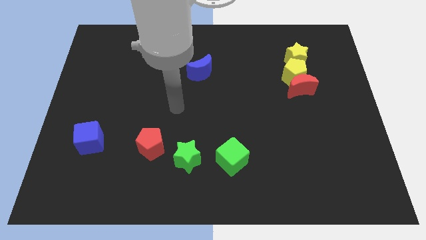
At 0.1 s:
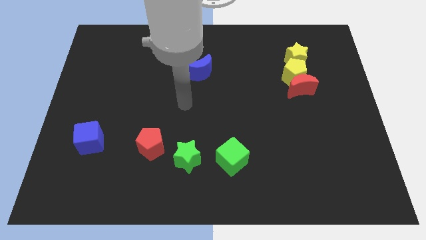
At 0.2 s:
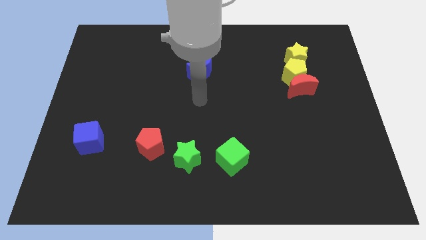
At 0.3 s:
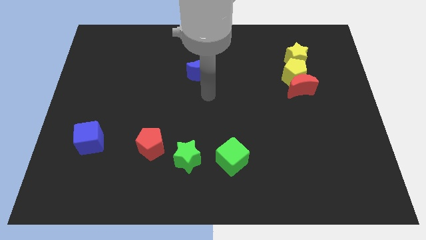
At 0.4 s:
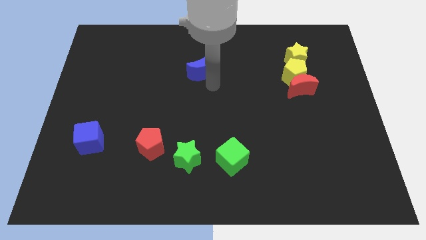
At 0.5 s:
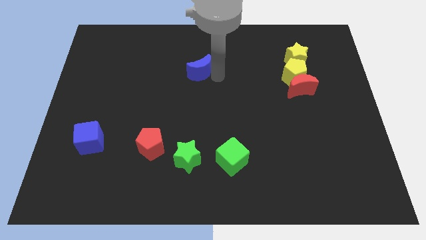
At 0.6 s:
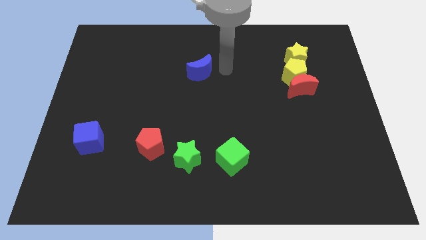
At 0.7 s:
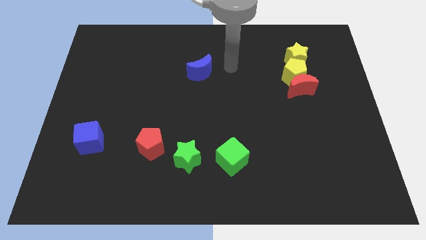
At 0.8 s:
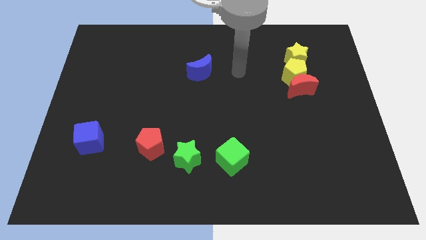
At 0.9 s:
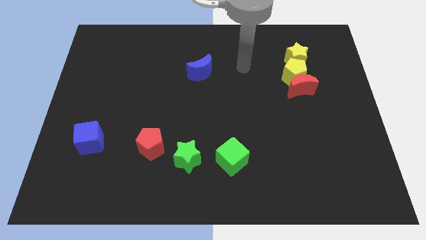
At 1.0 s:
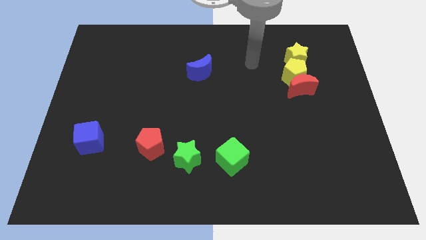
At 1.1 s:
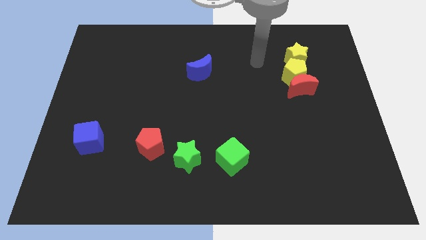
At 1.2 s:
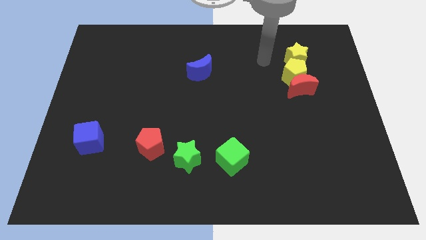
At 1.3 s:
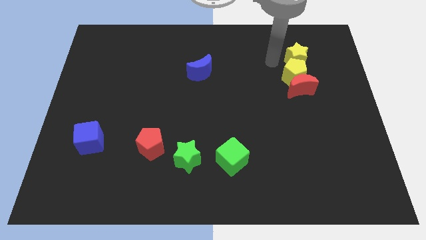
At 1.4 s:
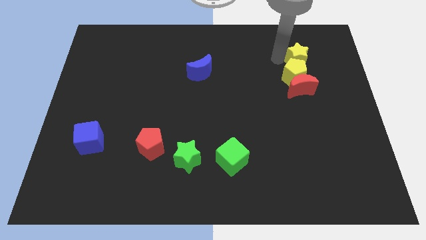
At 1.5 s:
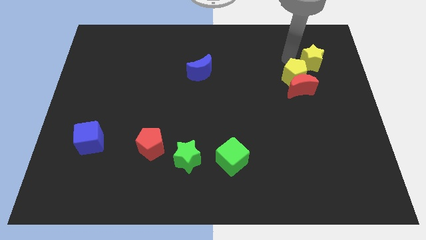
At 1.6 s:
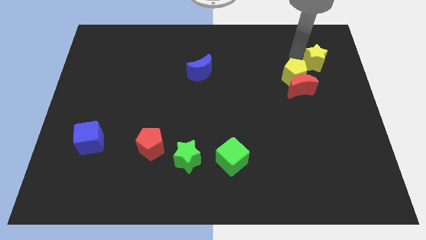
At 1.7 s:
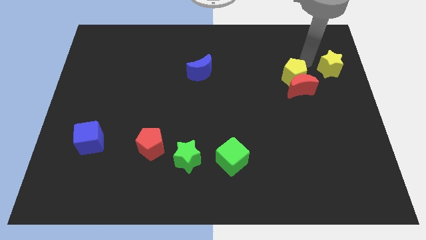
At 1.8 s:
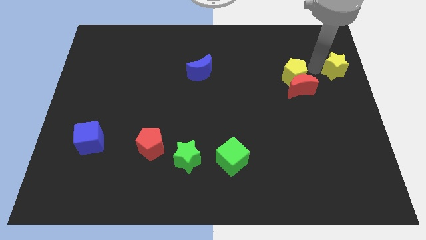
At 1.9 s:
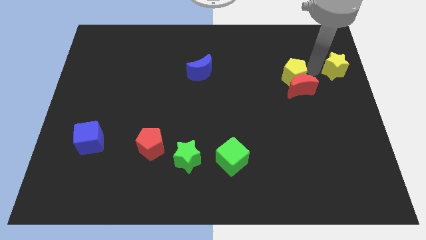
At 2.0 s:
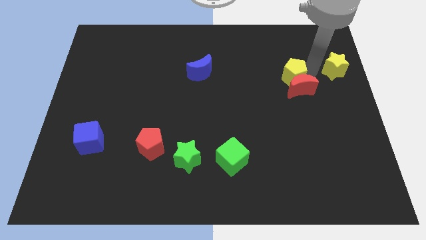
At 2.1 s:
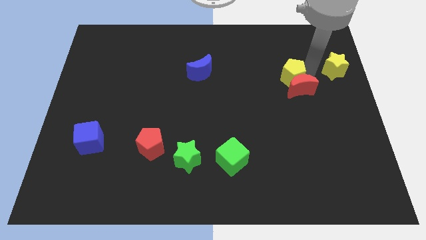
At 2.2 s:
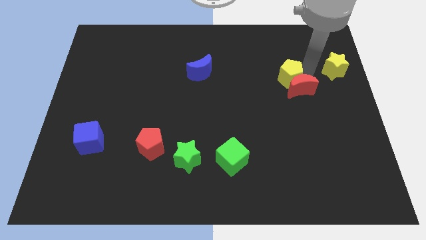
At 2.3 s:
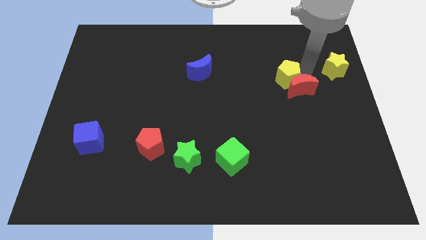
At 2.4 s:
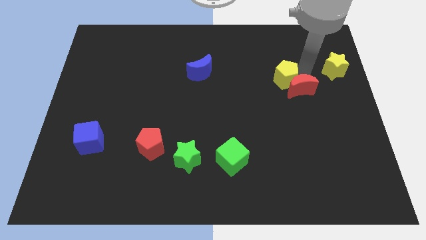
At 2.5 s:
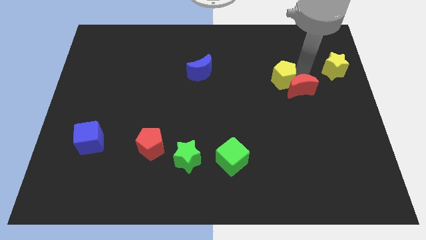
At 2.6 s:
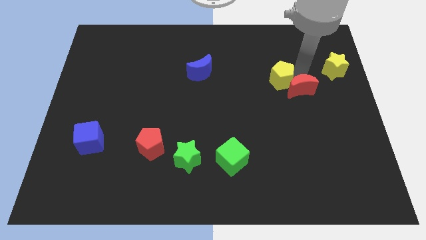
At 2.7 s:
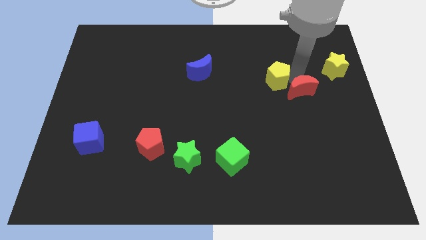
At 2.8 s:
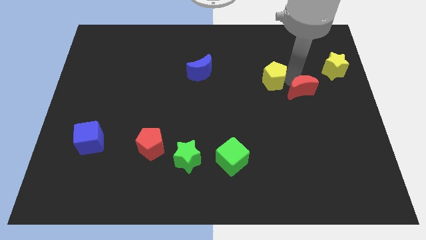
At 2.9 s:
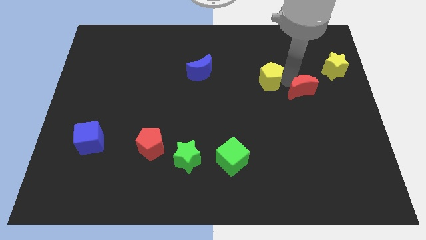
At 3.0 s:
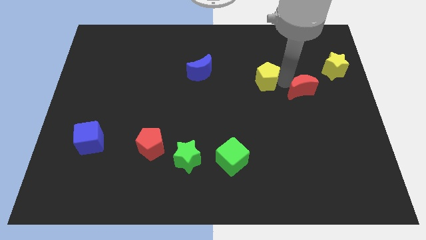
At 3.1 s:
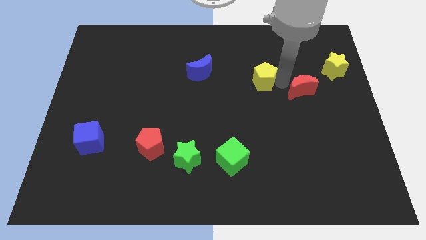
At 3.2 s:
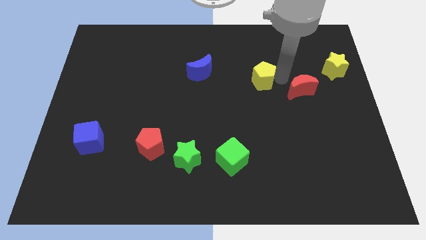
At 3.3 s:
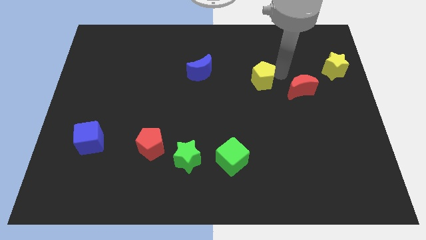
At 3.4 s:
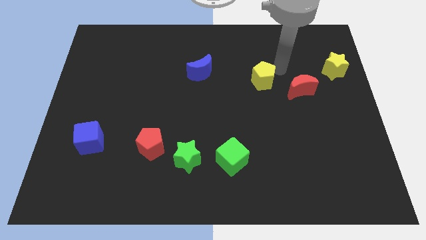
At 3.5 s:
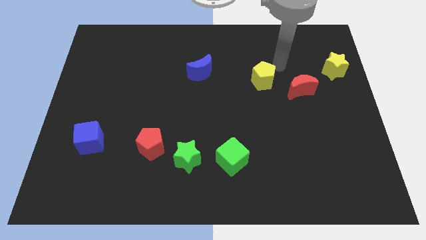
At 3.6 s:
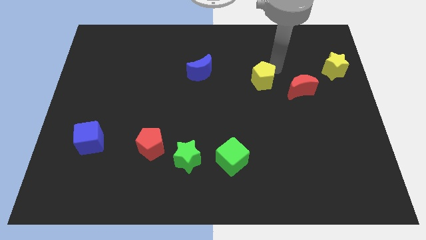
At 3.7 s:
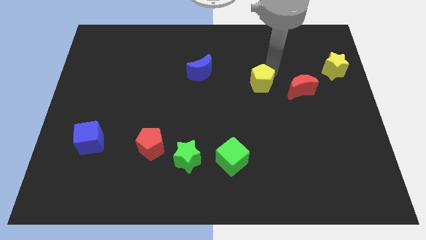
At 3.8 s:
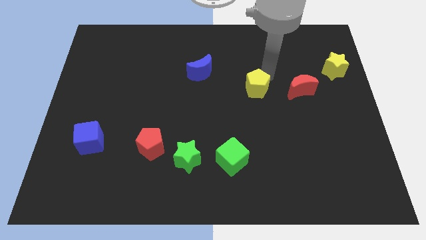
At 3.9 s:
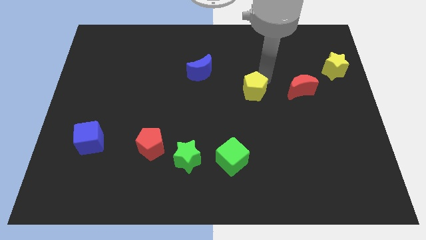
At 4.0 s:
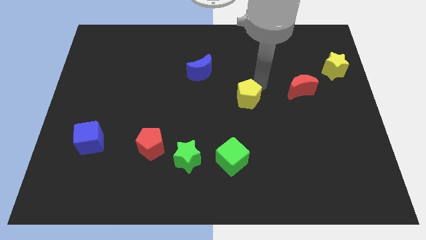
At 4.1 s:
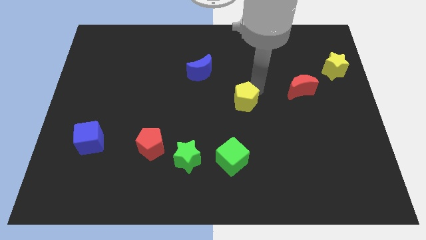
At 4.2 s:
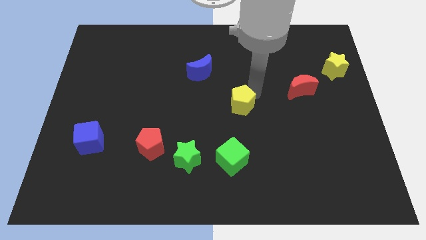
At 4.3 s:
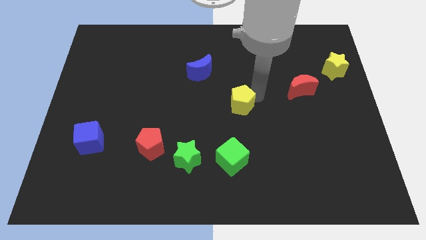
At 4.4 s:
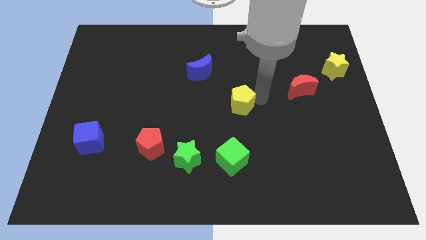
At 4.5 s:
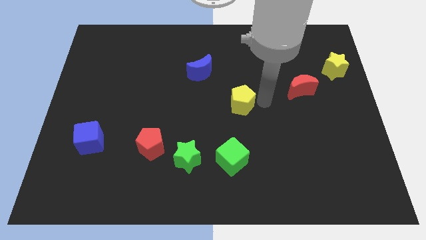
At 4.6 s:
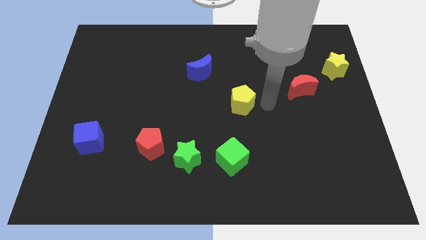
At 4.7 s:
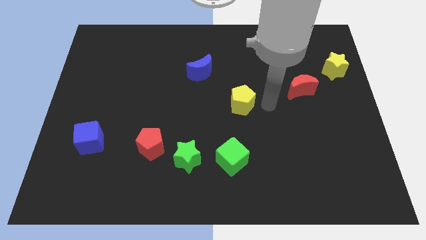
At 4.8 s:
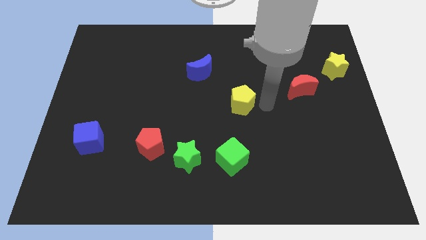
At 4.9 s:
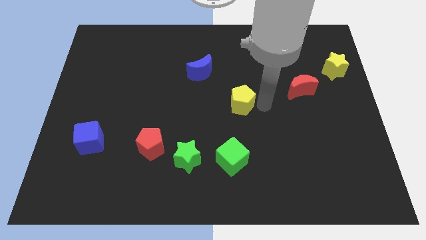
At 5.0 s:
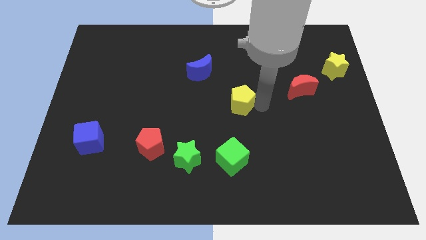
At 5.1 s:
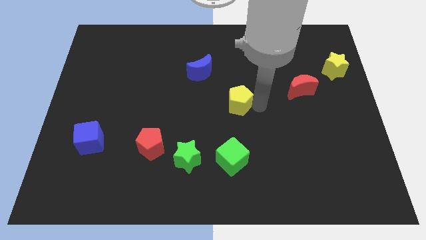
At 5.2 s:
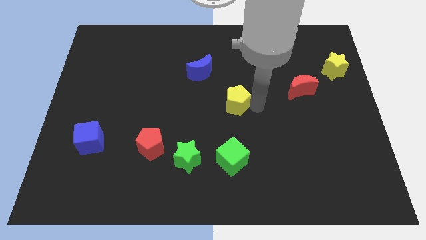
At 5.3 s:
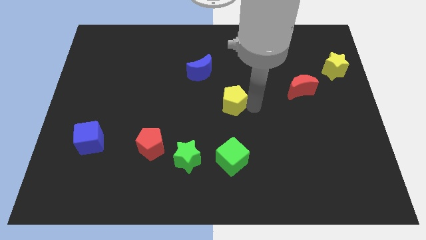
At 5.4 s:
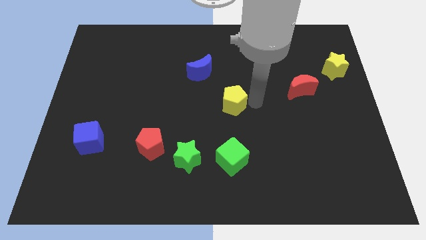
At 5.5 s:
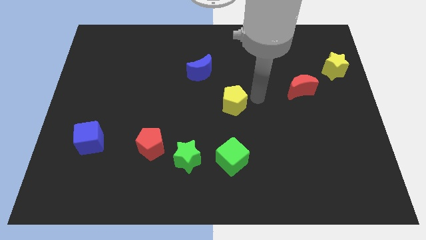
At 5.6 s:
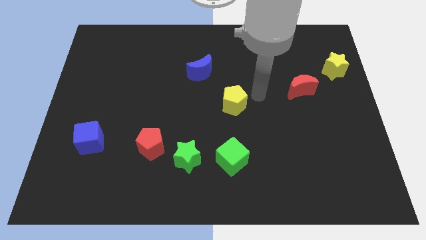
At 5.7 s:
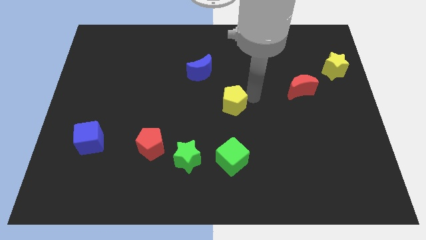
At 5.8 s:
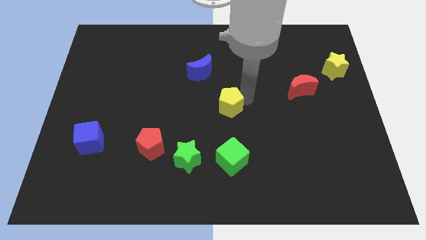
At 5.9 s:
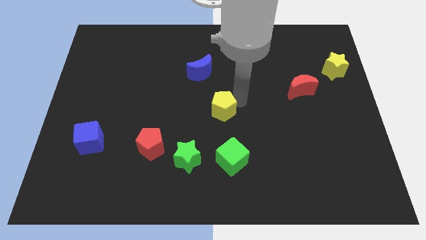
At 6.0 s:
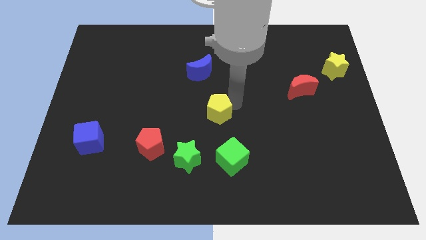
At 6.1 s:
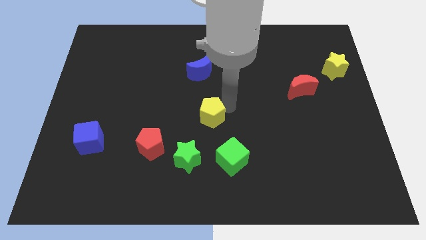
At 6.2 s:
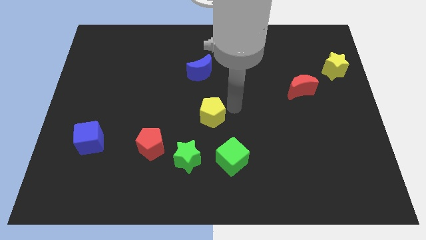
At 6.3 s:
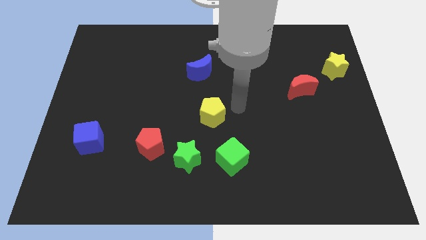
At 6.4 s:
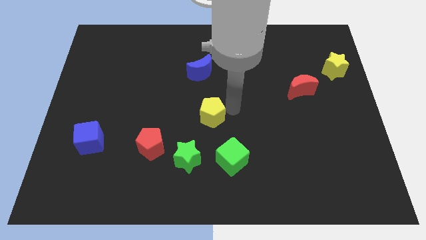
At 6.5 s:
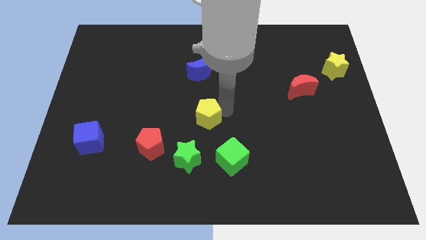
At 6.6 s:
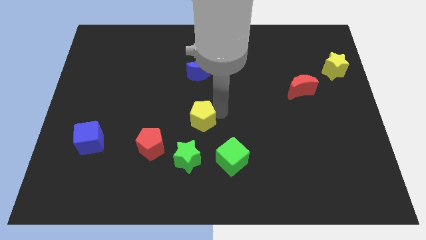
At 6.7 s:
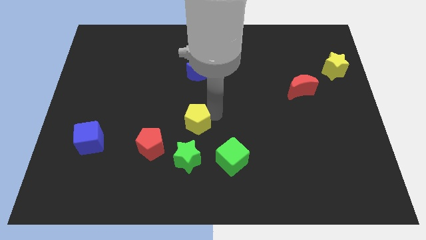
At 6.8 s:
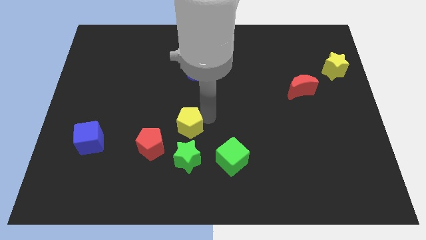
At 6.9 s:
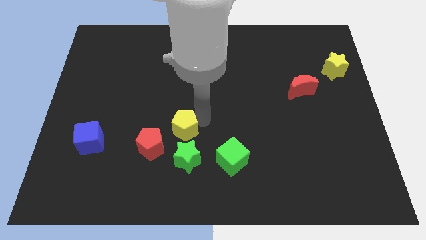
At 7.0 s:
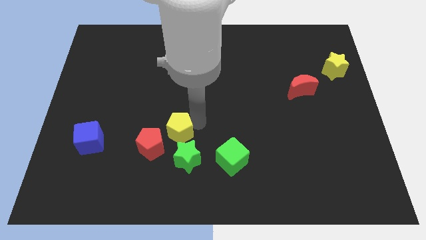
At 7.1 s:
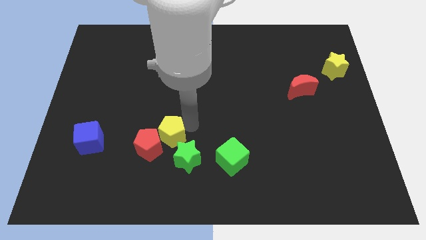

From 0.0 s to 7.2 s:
put the yellow pentagon next to the red pentagon
